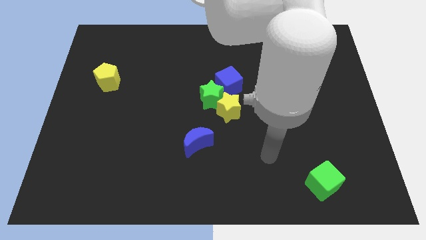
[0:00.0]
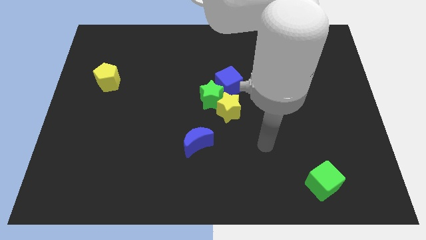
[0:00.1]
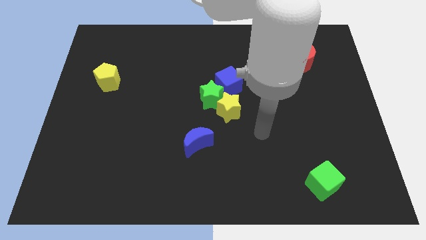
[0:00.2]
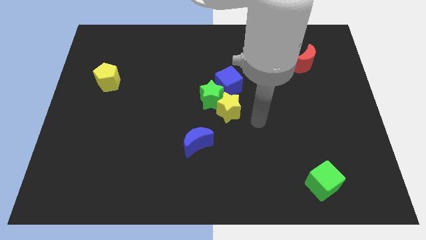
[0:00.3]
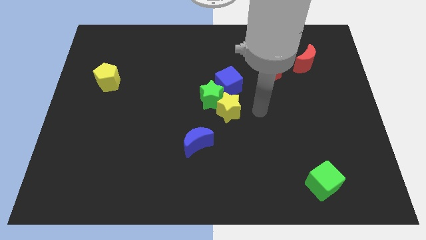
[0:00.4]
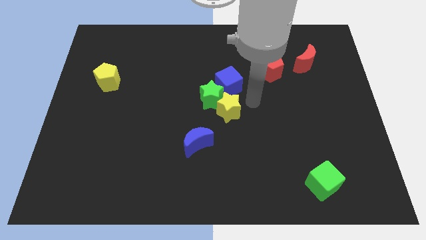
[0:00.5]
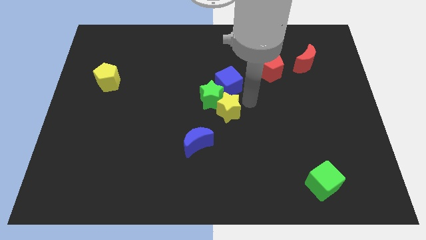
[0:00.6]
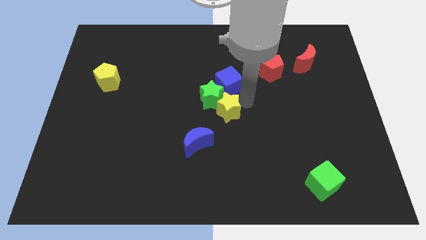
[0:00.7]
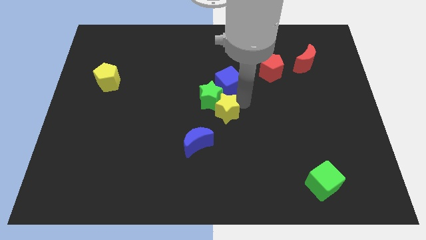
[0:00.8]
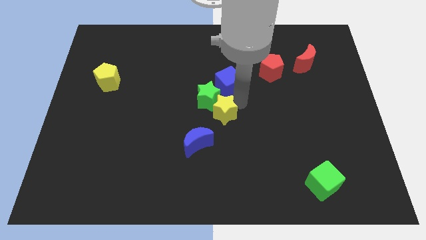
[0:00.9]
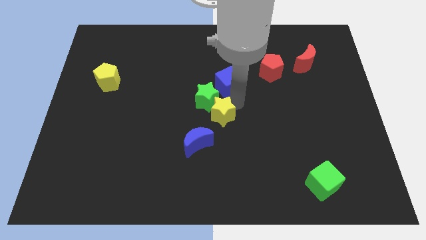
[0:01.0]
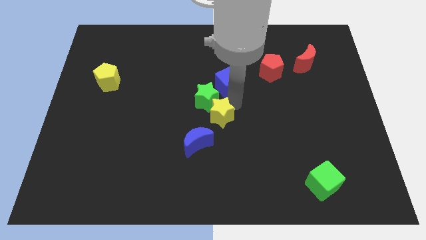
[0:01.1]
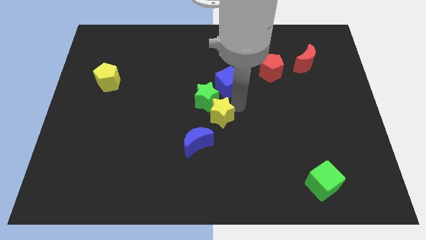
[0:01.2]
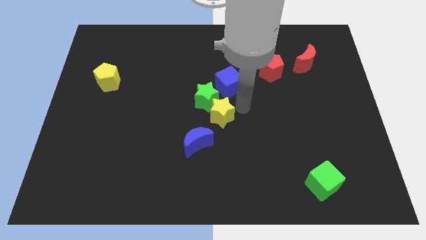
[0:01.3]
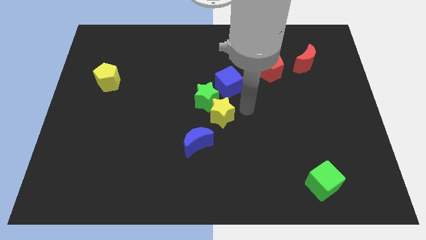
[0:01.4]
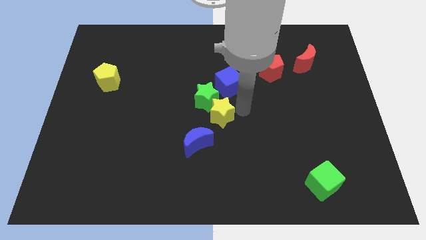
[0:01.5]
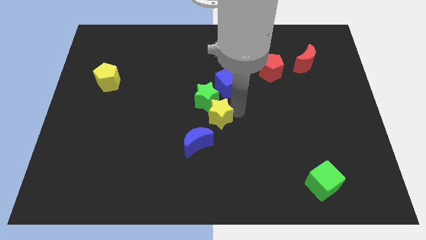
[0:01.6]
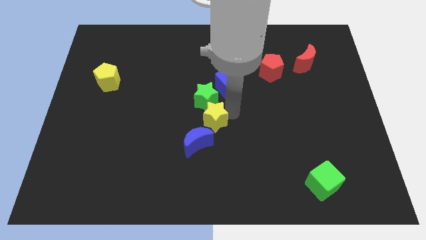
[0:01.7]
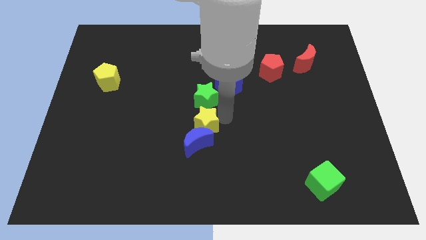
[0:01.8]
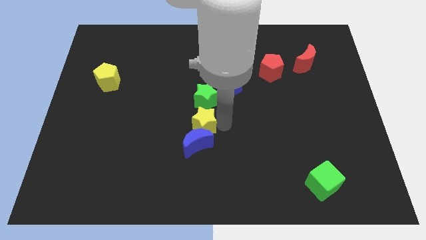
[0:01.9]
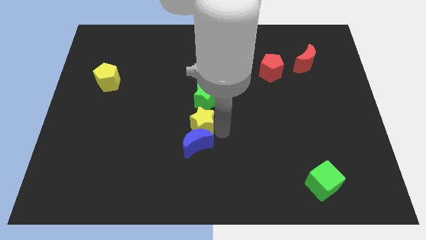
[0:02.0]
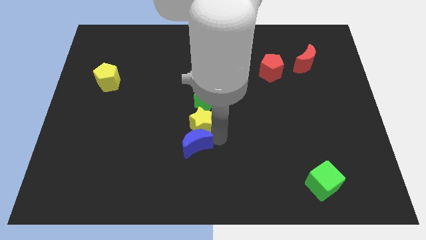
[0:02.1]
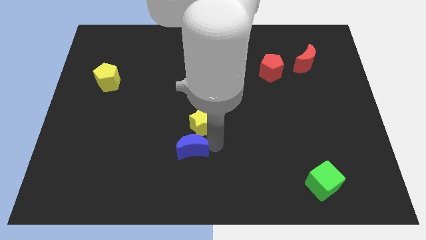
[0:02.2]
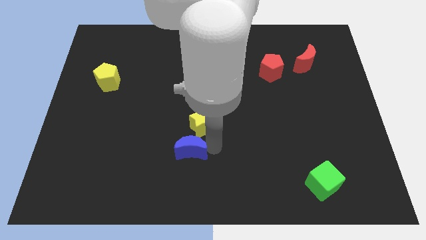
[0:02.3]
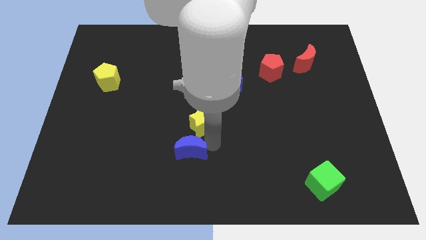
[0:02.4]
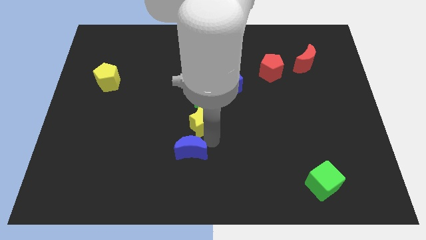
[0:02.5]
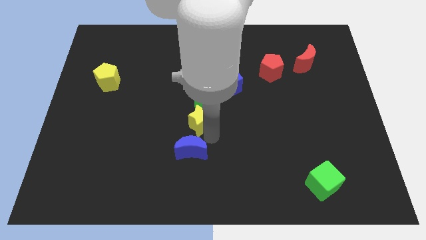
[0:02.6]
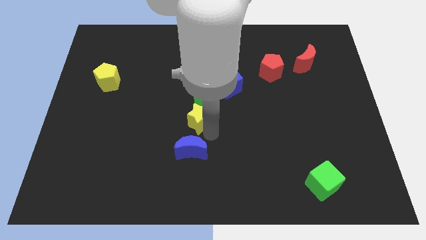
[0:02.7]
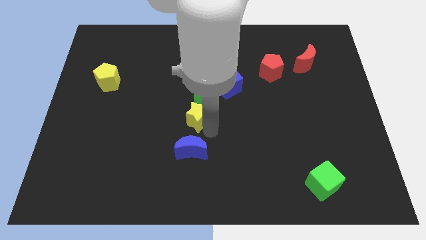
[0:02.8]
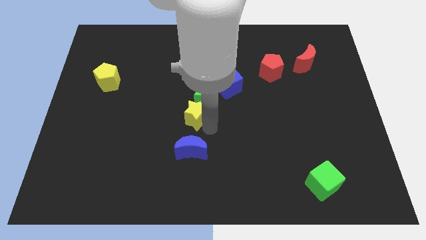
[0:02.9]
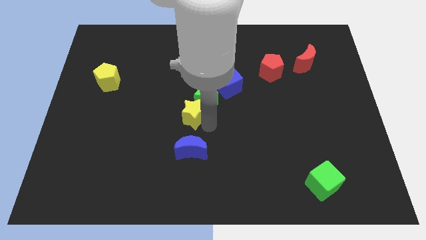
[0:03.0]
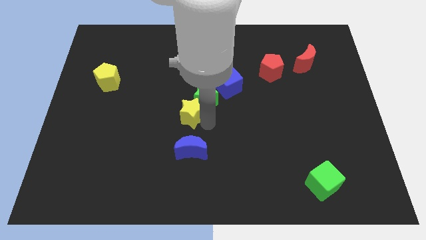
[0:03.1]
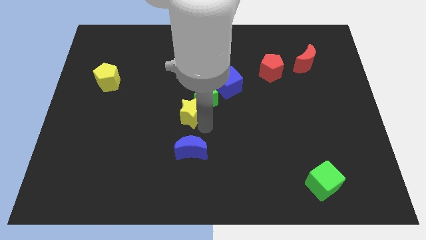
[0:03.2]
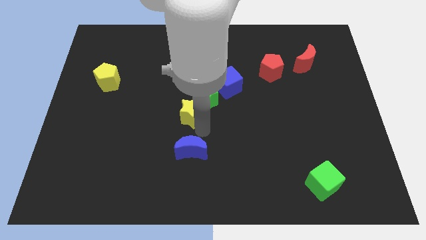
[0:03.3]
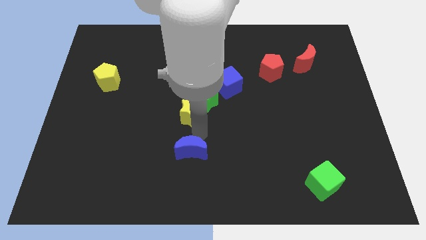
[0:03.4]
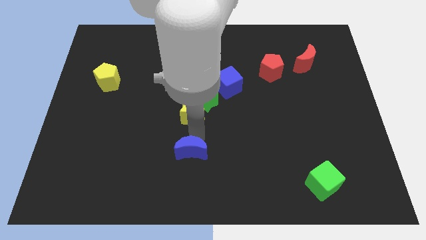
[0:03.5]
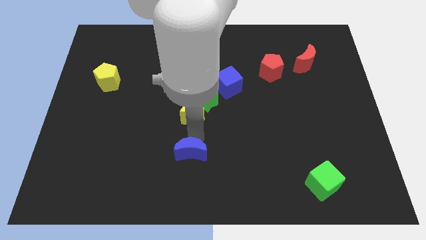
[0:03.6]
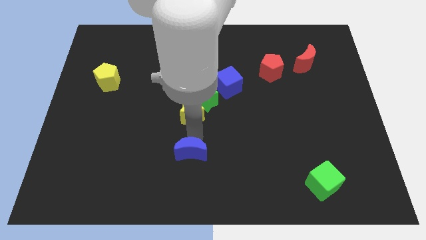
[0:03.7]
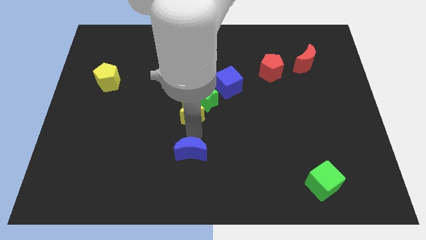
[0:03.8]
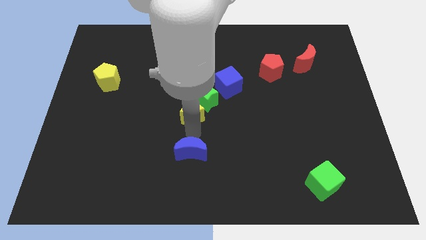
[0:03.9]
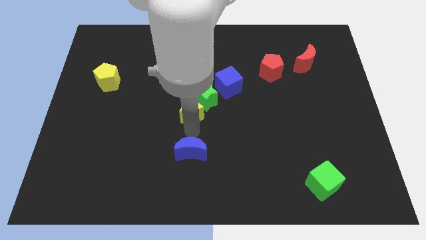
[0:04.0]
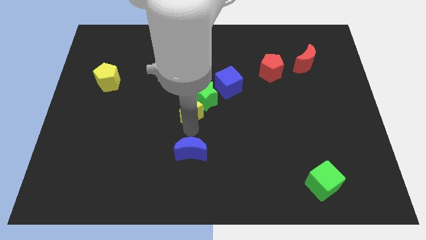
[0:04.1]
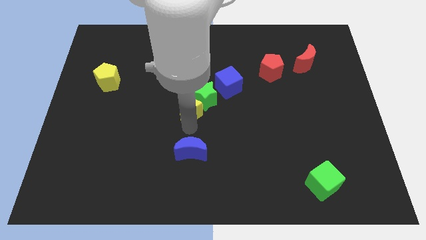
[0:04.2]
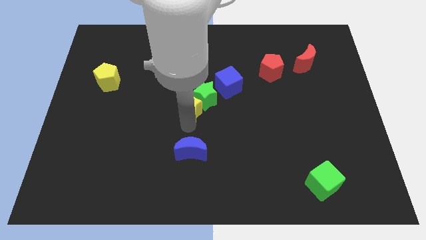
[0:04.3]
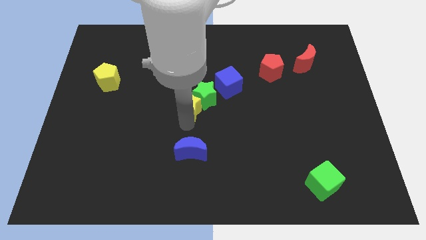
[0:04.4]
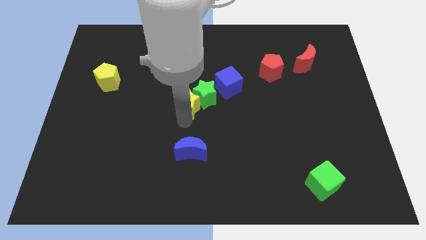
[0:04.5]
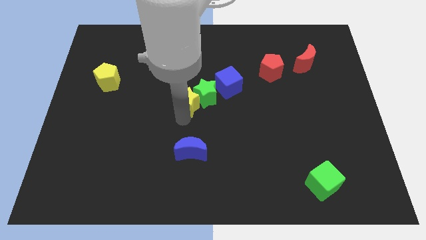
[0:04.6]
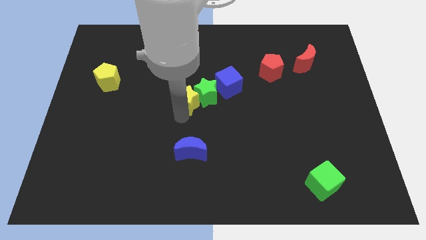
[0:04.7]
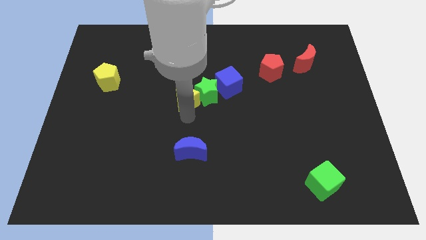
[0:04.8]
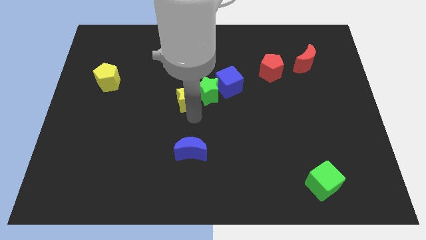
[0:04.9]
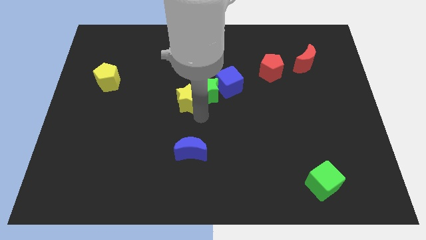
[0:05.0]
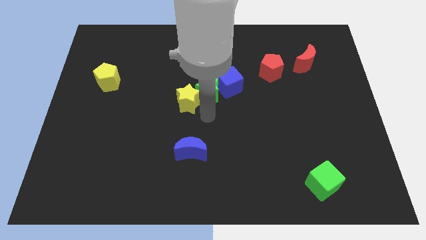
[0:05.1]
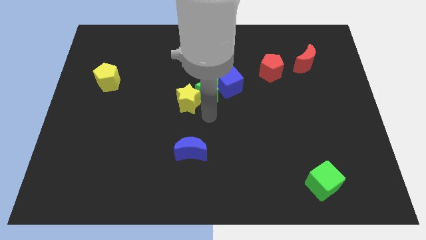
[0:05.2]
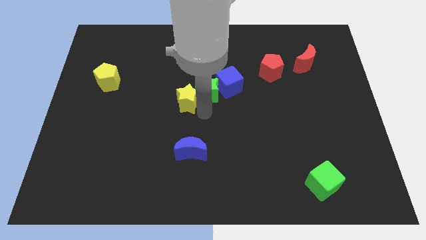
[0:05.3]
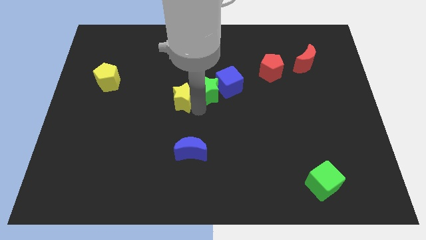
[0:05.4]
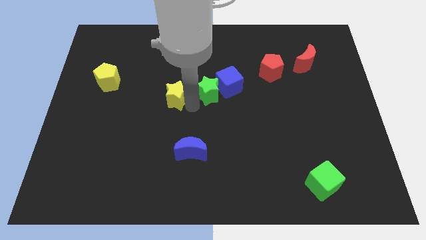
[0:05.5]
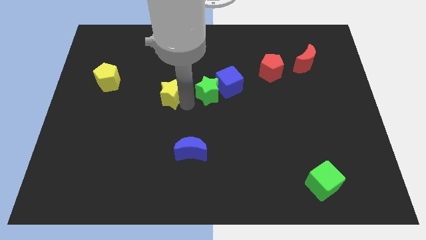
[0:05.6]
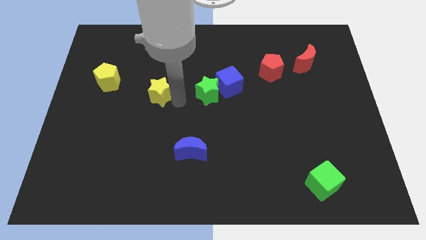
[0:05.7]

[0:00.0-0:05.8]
push the yellow star to the right side of the yellow pentagon

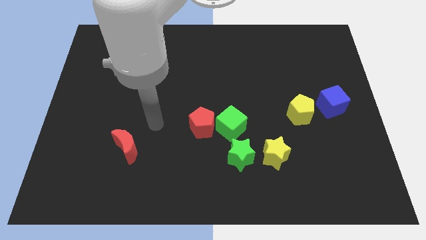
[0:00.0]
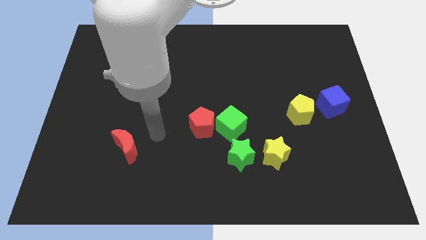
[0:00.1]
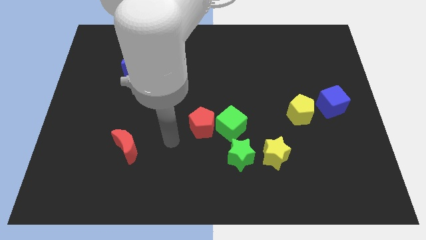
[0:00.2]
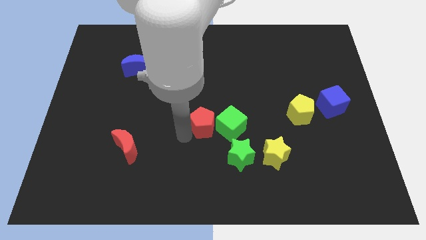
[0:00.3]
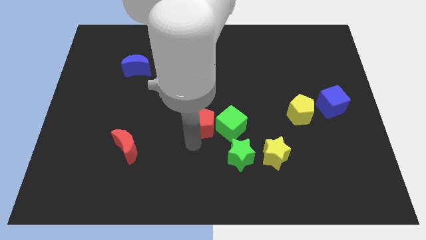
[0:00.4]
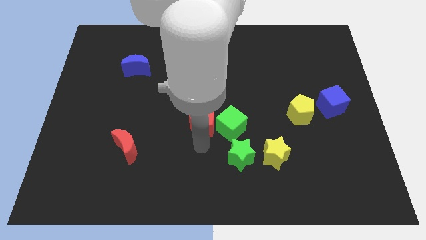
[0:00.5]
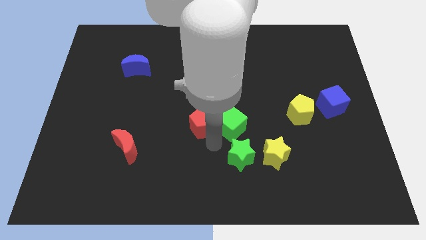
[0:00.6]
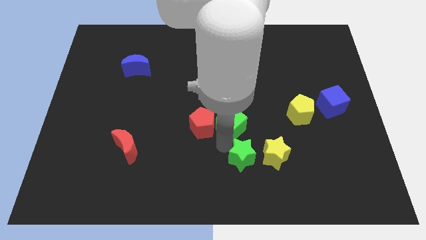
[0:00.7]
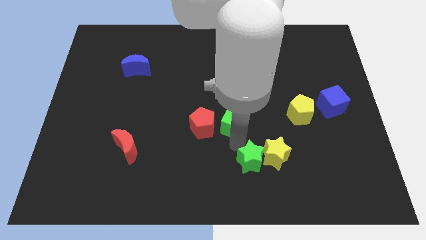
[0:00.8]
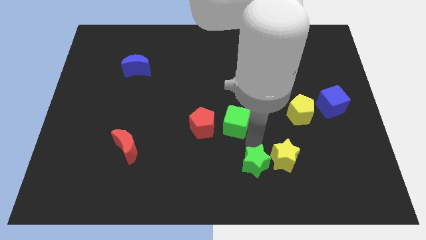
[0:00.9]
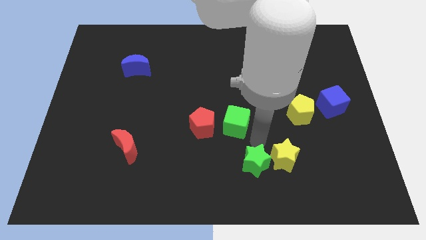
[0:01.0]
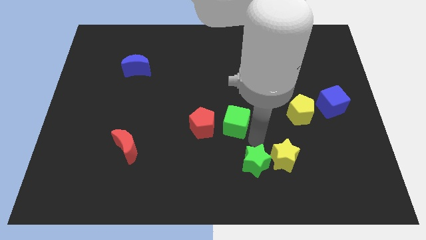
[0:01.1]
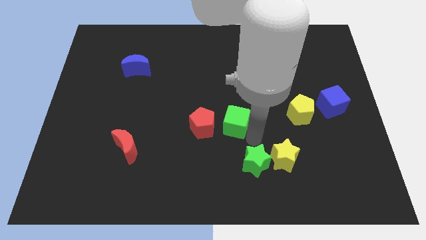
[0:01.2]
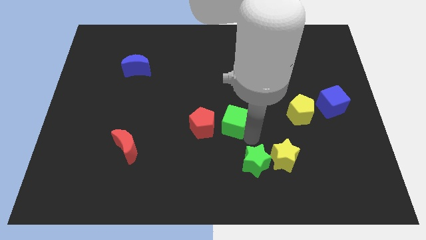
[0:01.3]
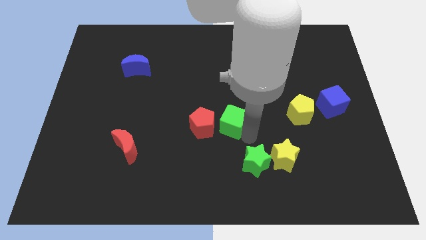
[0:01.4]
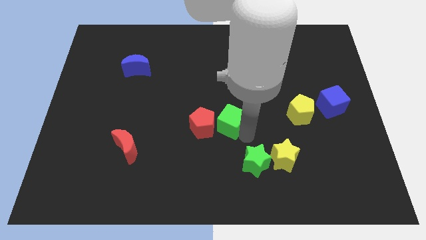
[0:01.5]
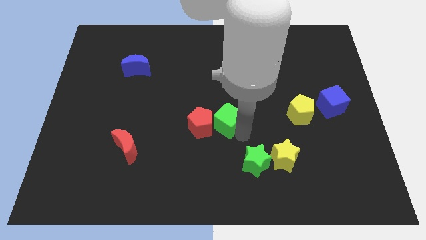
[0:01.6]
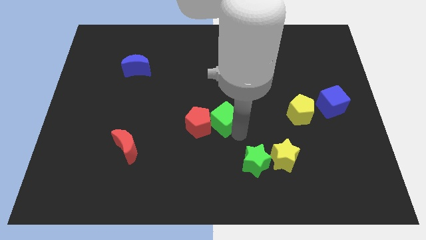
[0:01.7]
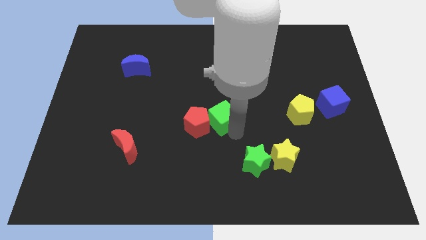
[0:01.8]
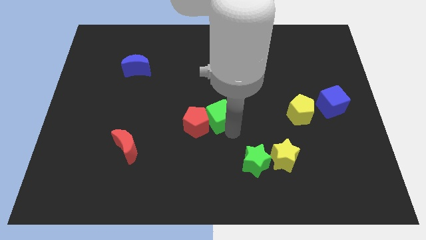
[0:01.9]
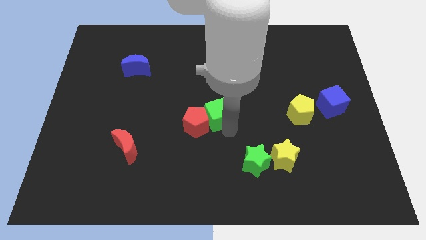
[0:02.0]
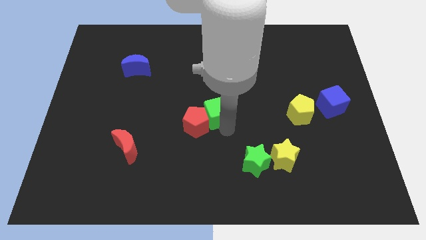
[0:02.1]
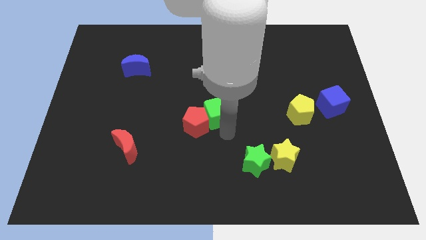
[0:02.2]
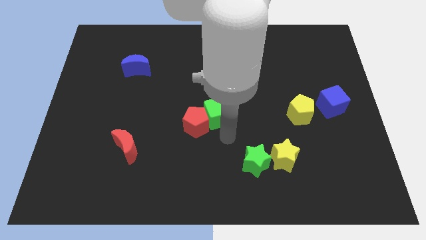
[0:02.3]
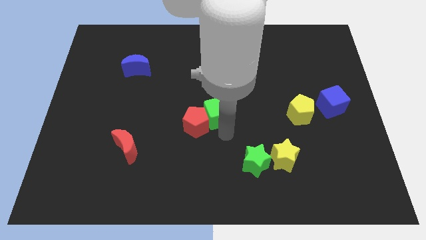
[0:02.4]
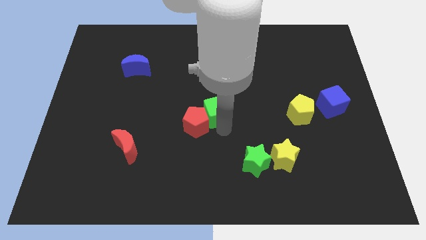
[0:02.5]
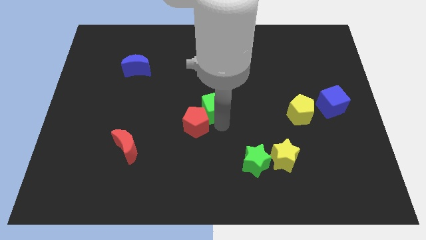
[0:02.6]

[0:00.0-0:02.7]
slide the green cube to the top of the red pentagon
